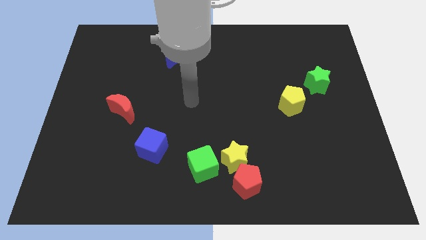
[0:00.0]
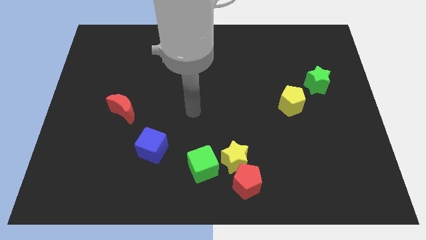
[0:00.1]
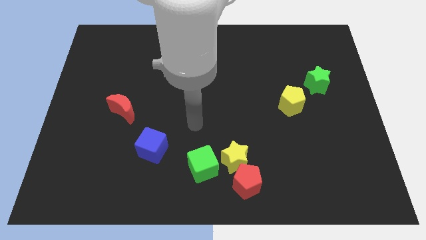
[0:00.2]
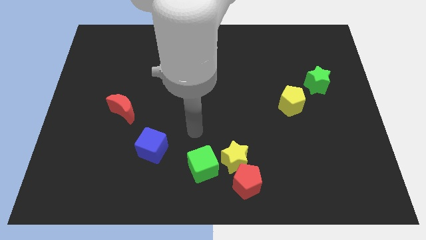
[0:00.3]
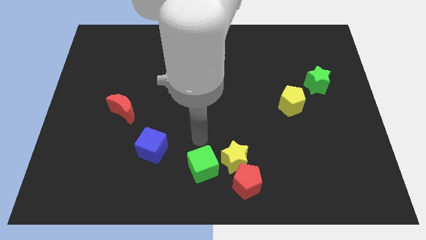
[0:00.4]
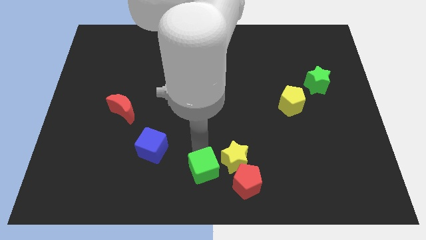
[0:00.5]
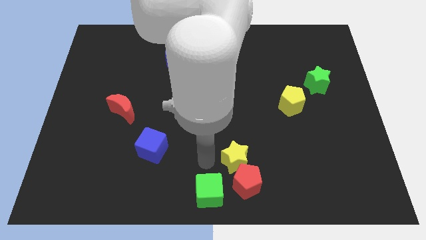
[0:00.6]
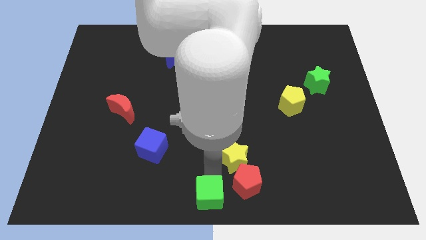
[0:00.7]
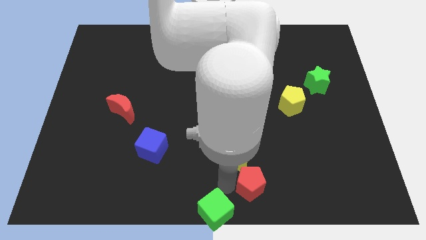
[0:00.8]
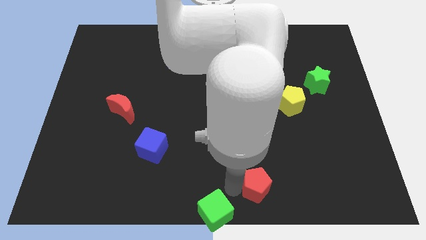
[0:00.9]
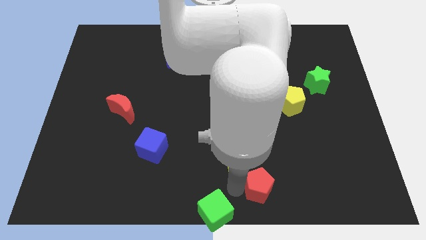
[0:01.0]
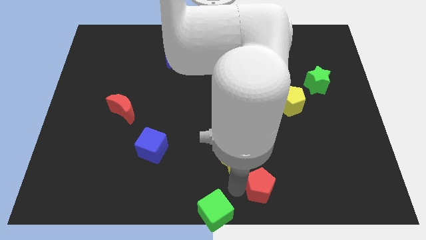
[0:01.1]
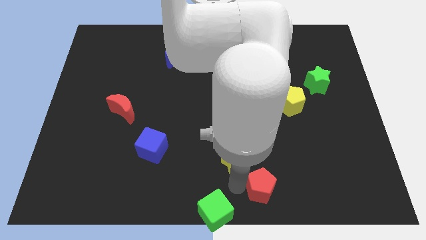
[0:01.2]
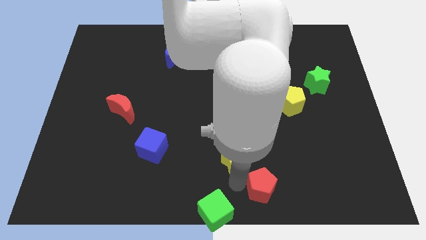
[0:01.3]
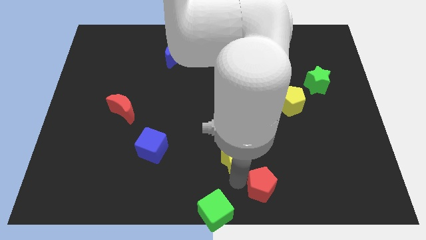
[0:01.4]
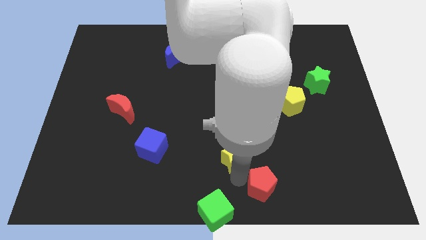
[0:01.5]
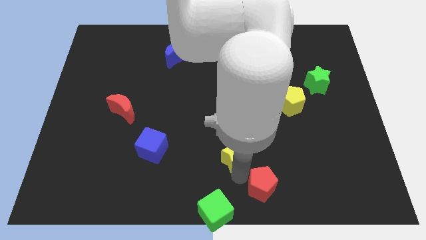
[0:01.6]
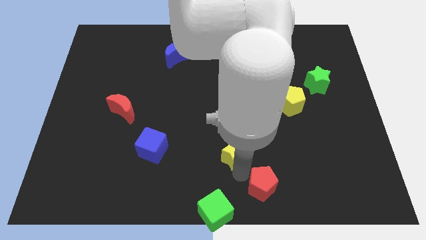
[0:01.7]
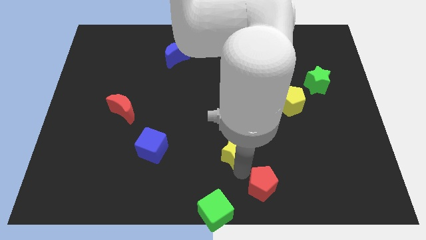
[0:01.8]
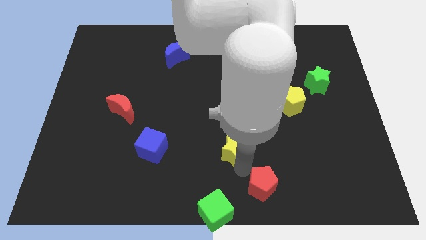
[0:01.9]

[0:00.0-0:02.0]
separate the yellow star from the red pentagon and green cube

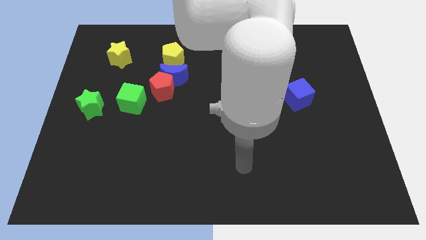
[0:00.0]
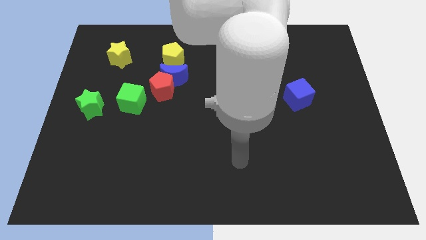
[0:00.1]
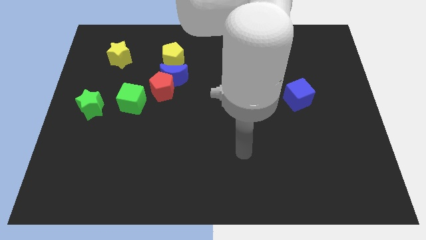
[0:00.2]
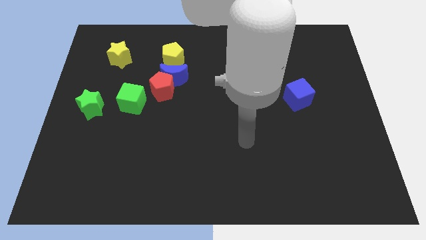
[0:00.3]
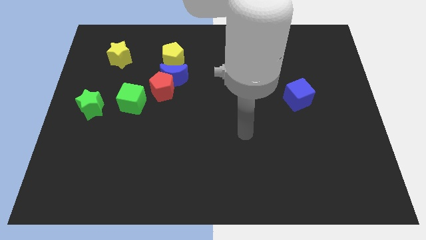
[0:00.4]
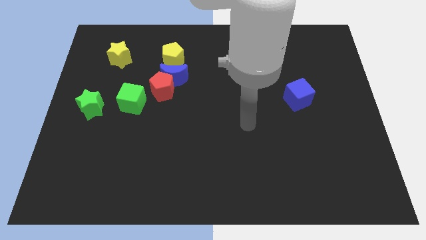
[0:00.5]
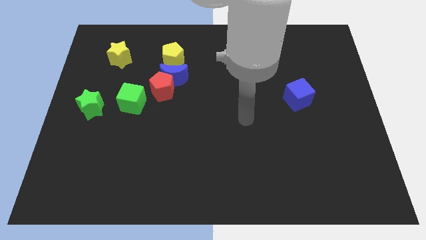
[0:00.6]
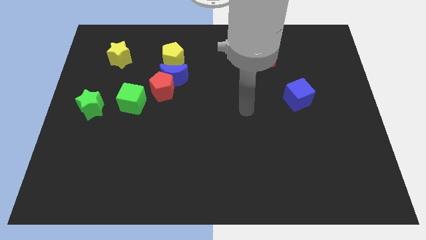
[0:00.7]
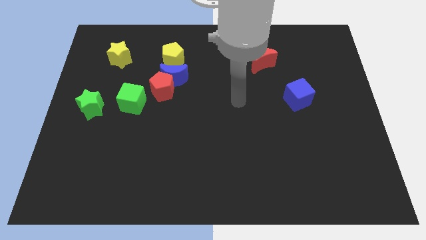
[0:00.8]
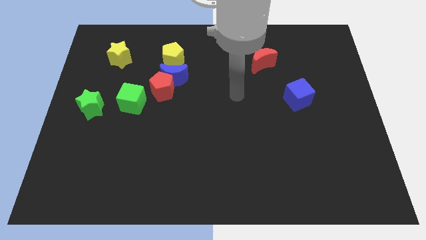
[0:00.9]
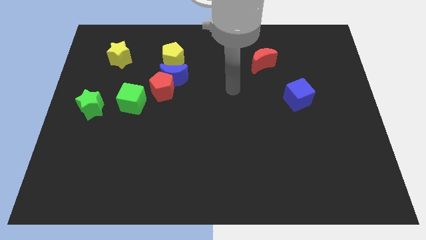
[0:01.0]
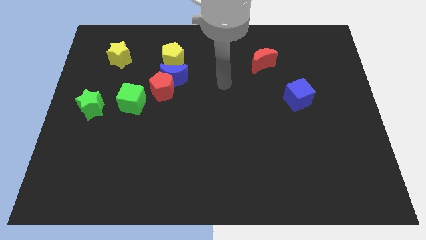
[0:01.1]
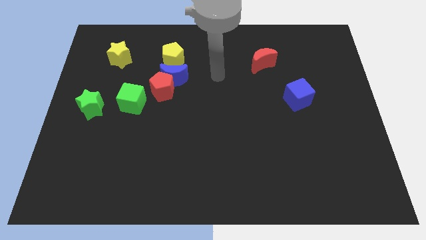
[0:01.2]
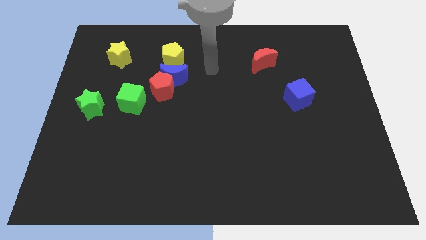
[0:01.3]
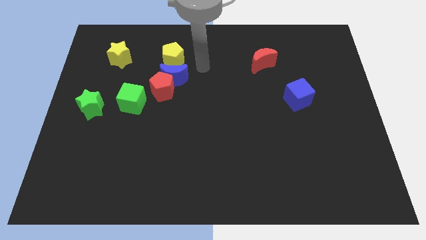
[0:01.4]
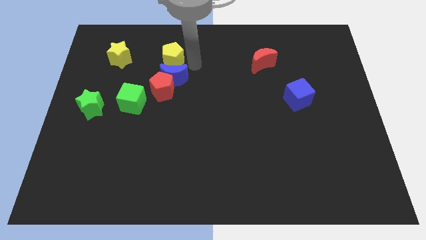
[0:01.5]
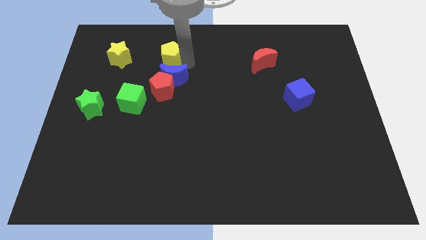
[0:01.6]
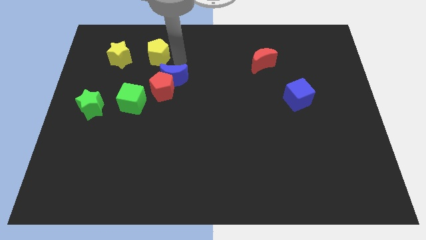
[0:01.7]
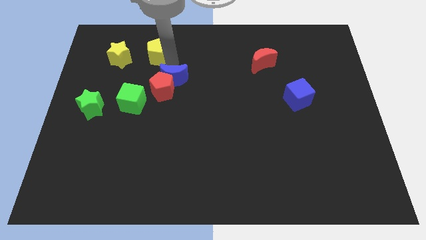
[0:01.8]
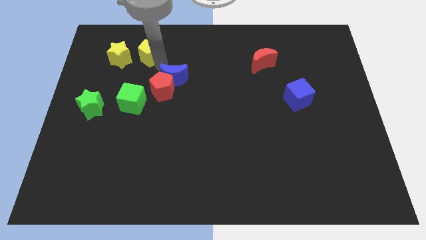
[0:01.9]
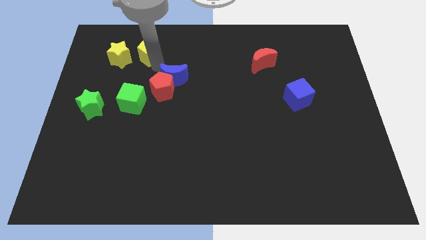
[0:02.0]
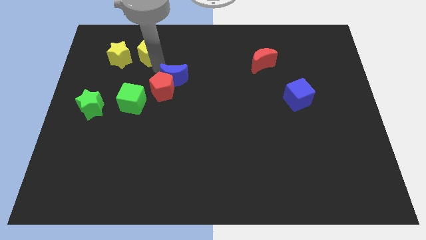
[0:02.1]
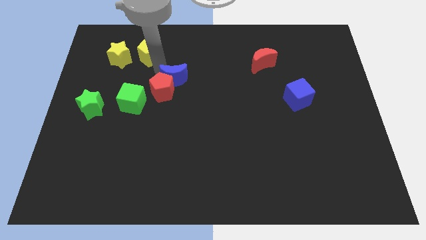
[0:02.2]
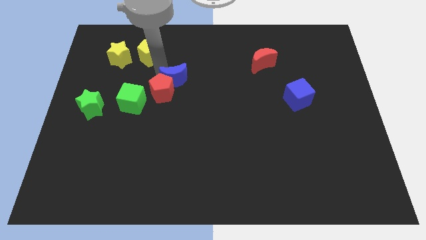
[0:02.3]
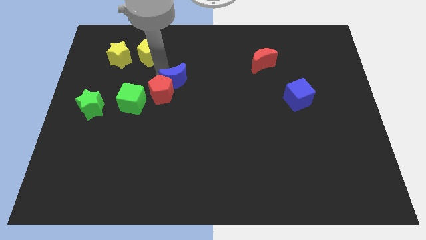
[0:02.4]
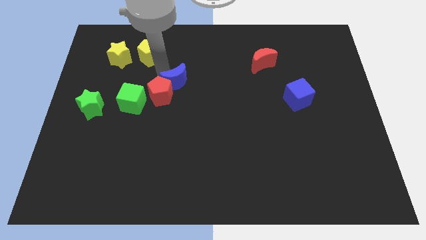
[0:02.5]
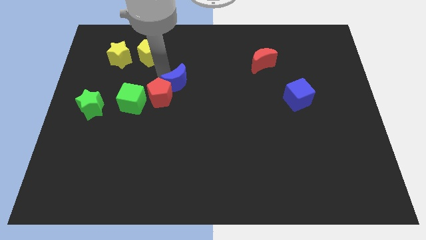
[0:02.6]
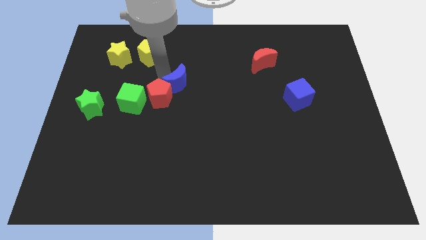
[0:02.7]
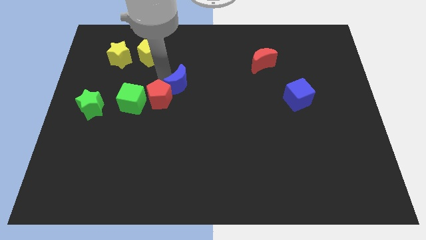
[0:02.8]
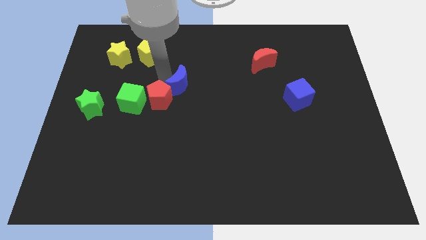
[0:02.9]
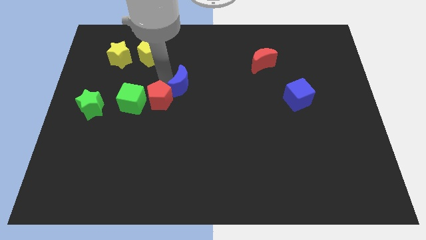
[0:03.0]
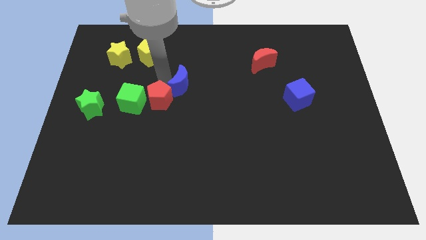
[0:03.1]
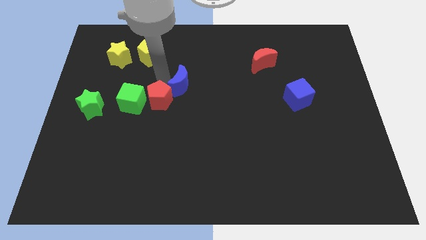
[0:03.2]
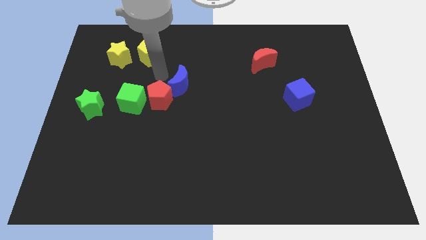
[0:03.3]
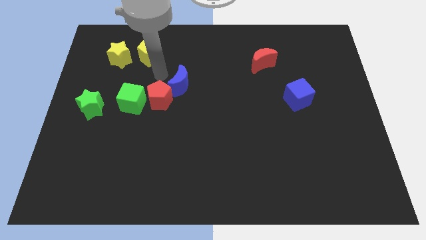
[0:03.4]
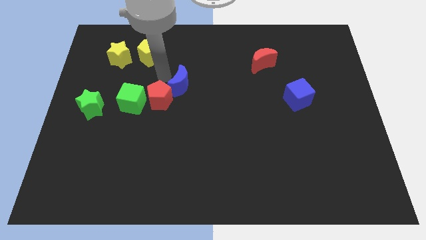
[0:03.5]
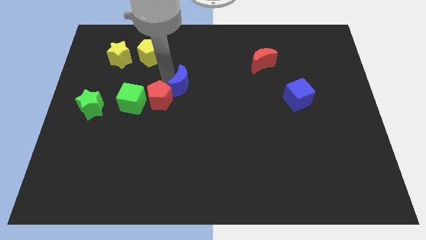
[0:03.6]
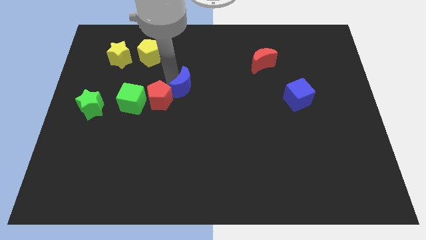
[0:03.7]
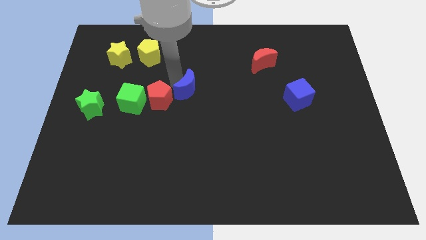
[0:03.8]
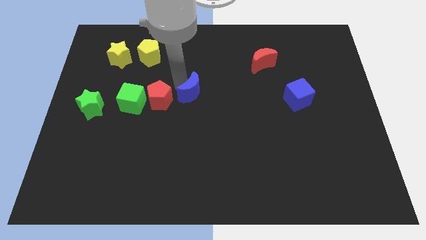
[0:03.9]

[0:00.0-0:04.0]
separate the blue moon from the red pentagon and yellow pentagon

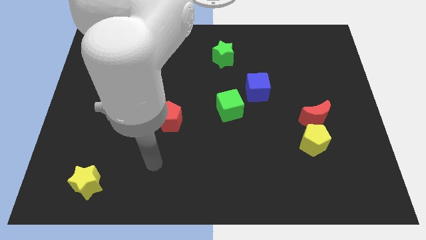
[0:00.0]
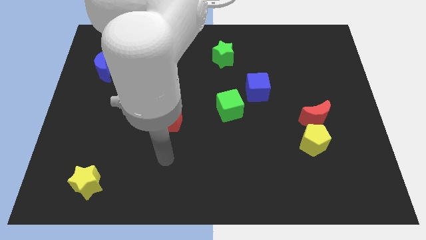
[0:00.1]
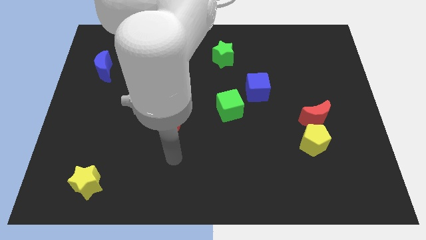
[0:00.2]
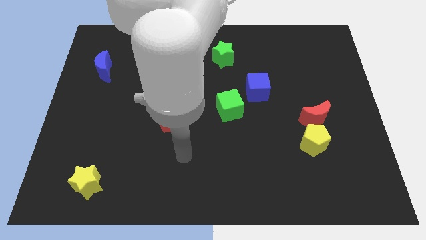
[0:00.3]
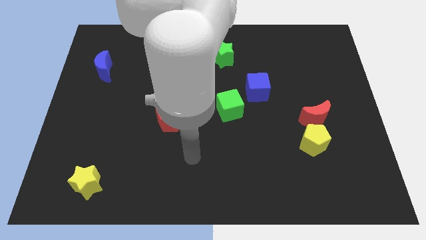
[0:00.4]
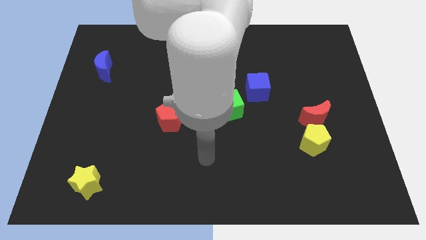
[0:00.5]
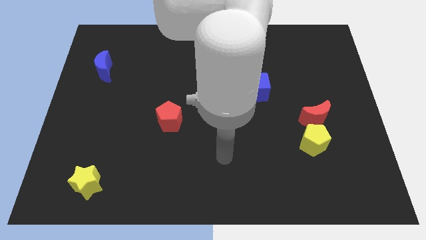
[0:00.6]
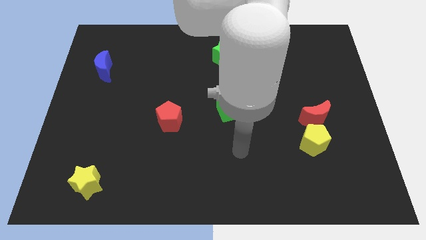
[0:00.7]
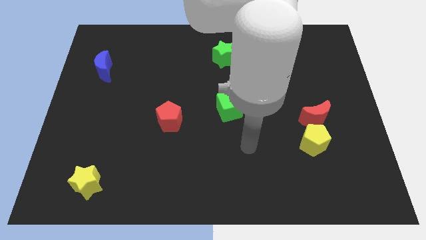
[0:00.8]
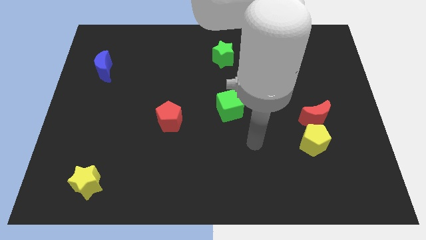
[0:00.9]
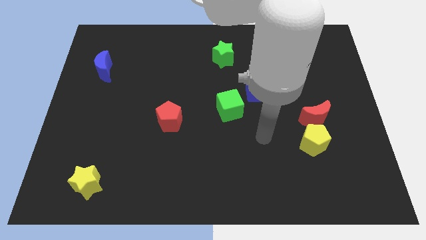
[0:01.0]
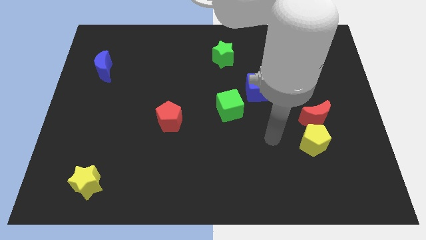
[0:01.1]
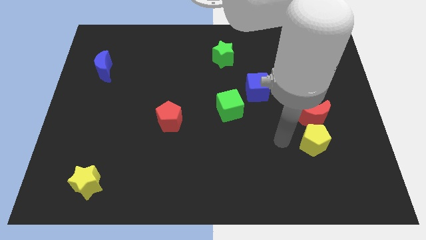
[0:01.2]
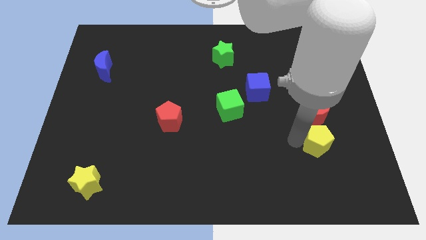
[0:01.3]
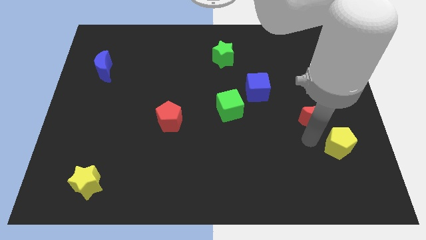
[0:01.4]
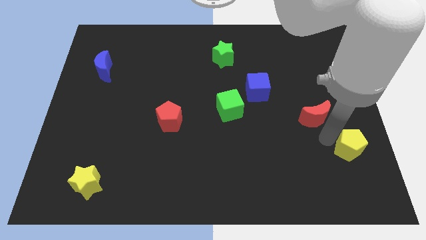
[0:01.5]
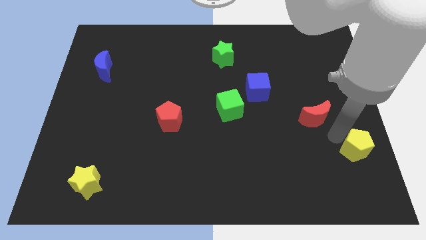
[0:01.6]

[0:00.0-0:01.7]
separate the red moon from the yellow pentagon

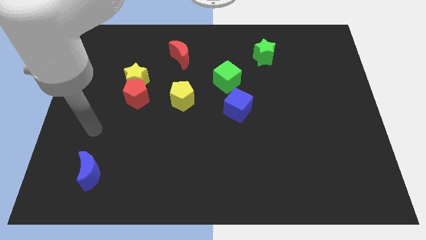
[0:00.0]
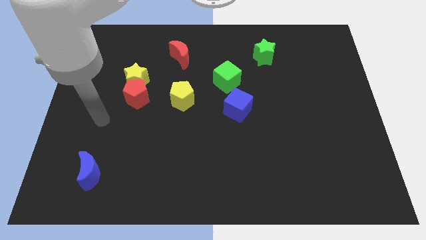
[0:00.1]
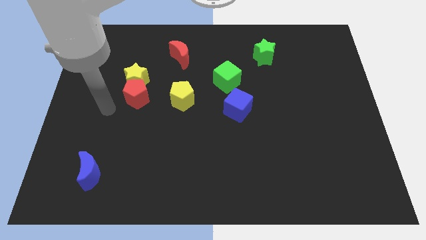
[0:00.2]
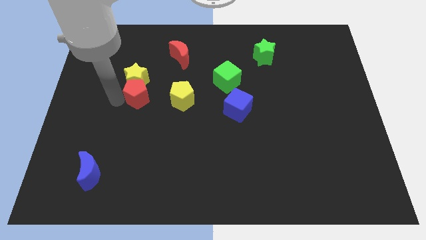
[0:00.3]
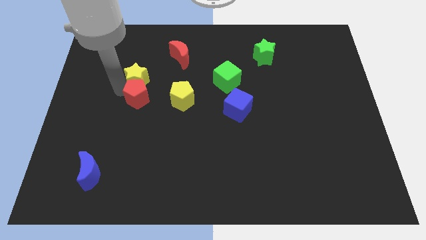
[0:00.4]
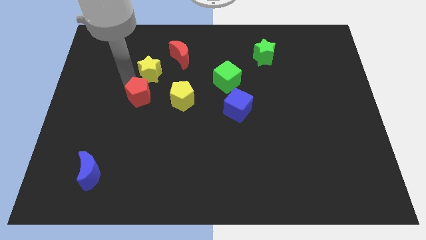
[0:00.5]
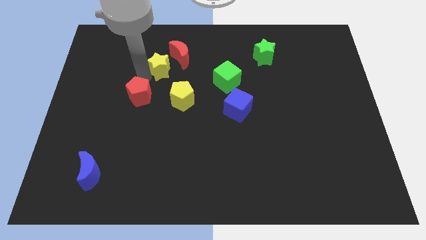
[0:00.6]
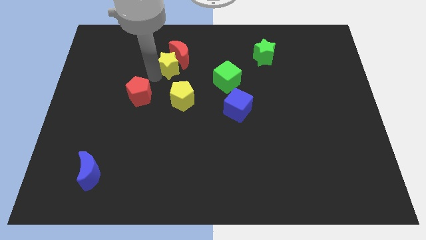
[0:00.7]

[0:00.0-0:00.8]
pull the red pentagon apart from the yellow star

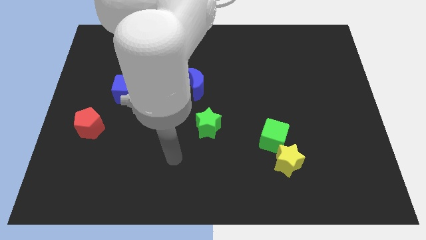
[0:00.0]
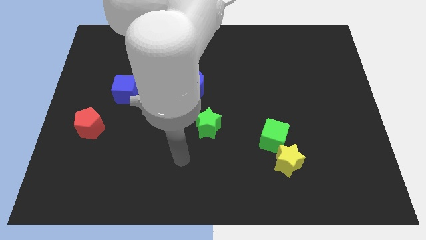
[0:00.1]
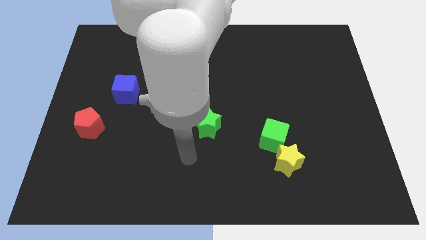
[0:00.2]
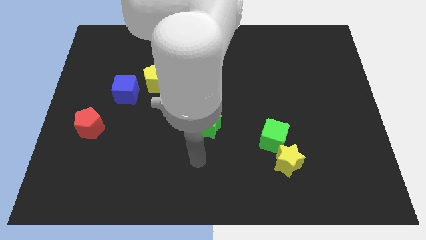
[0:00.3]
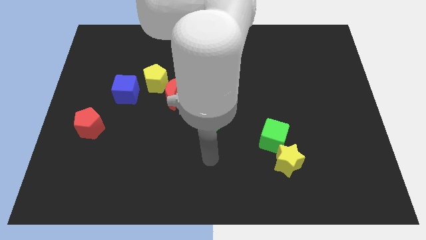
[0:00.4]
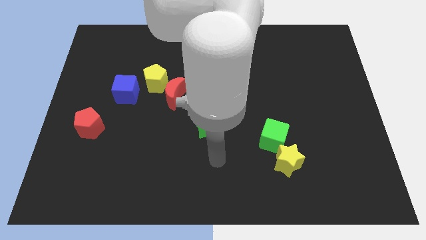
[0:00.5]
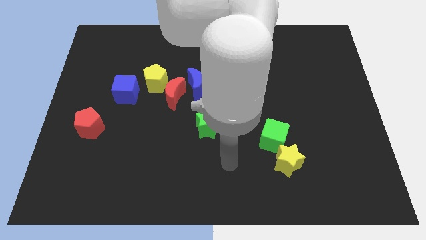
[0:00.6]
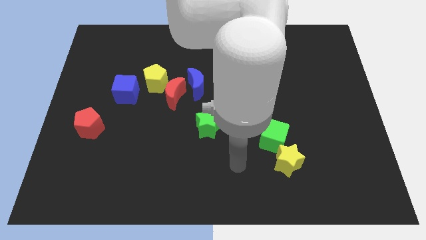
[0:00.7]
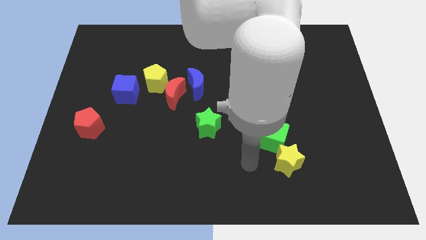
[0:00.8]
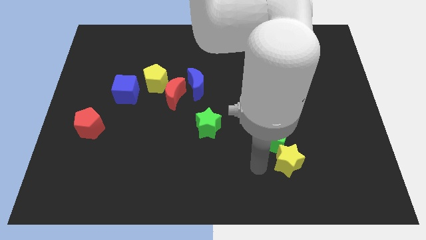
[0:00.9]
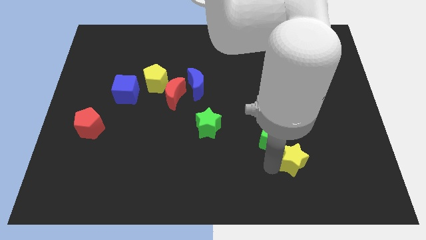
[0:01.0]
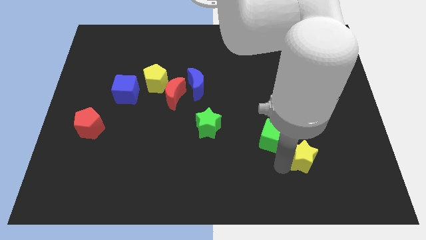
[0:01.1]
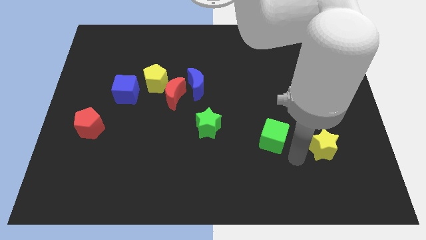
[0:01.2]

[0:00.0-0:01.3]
pull the green cube apart from the yellow star
